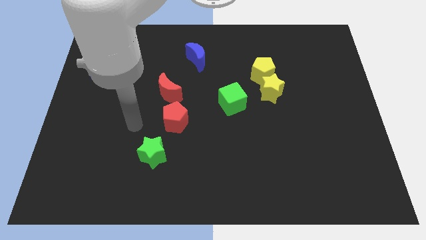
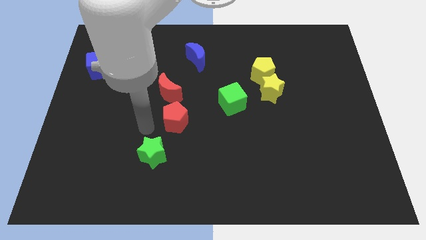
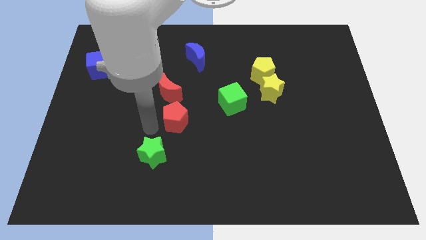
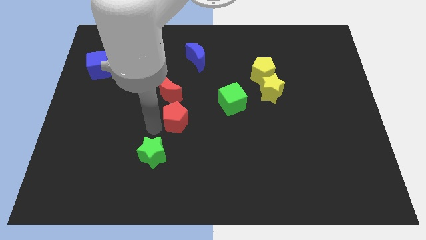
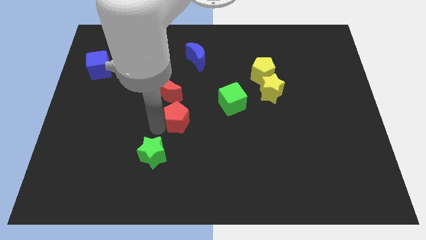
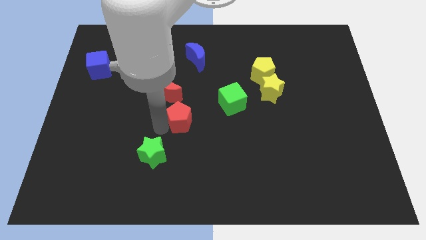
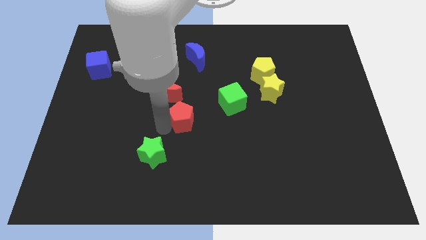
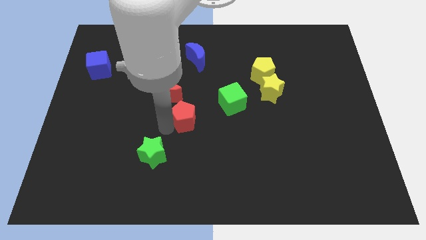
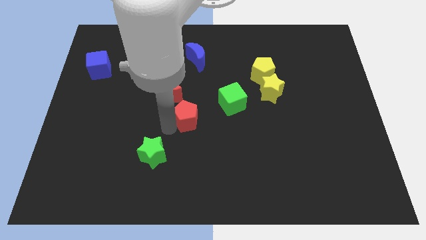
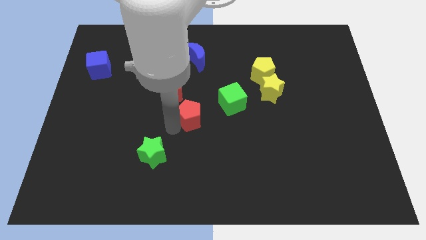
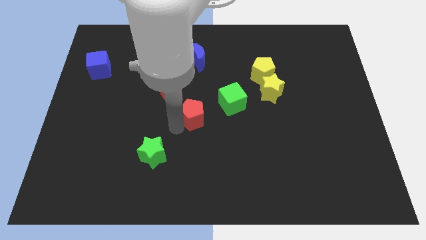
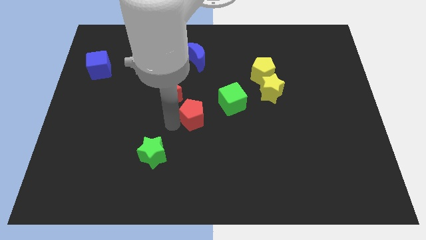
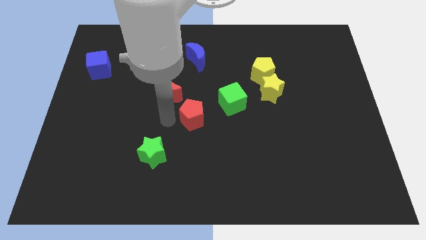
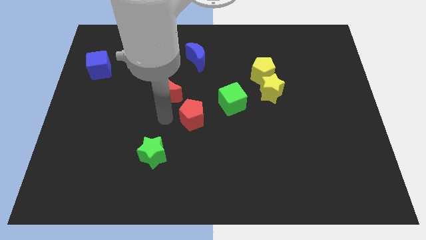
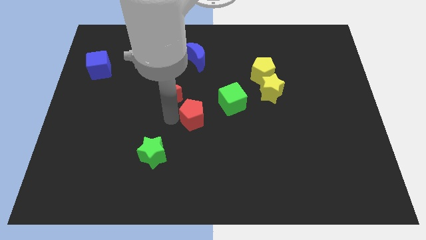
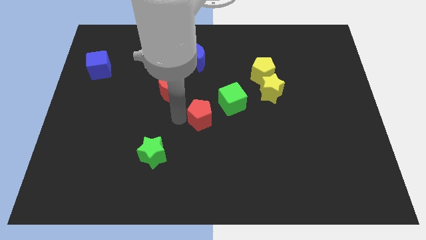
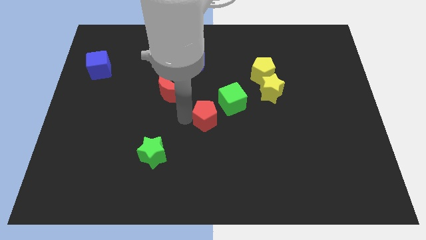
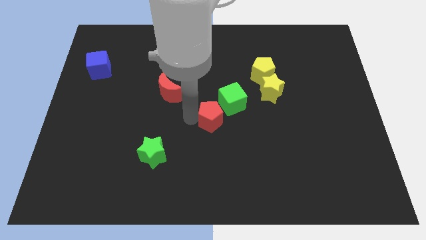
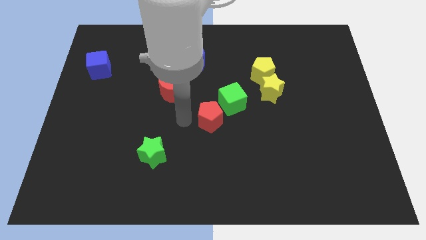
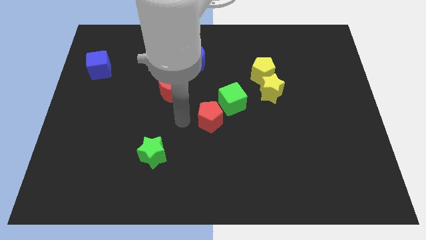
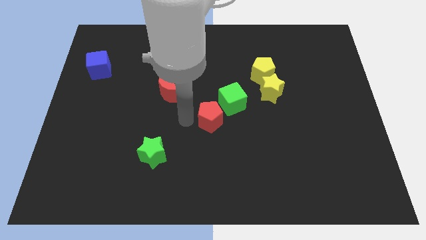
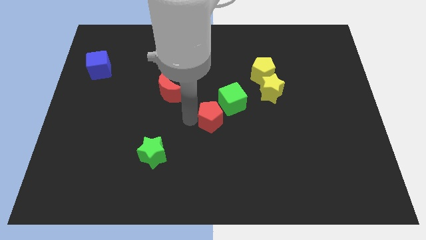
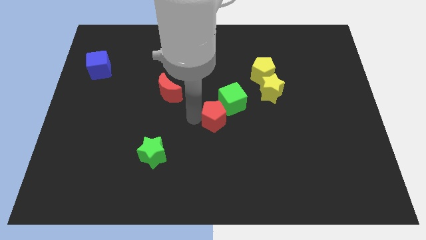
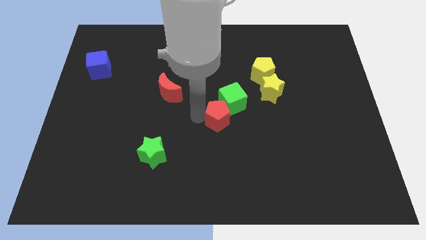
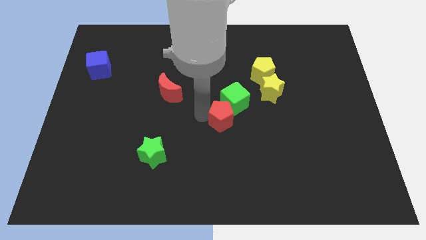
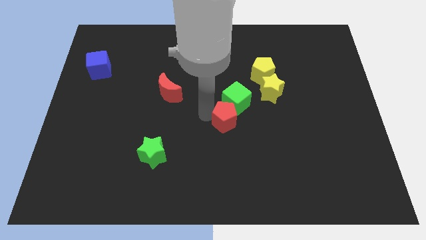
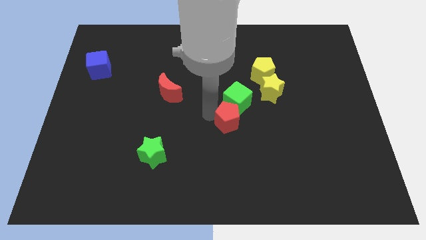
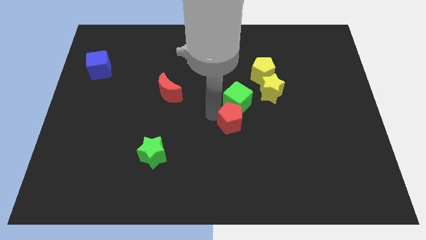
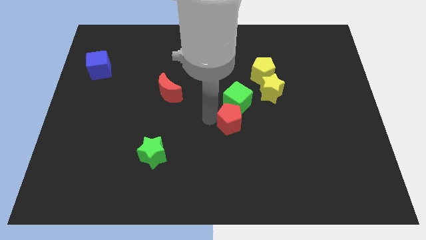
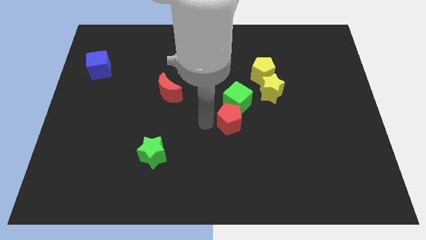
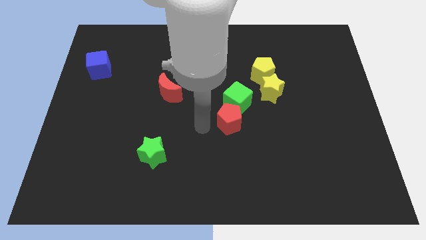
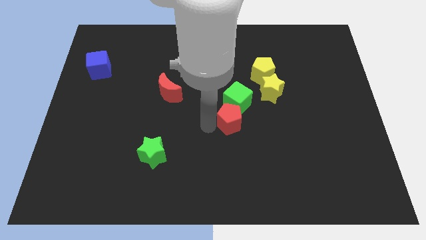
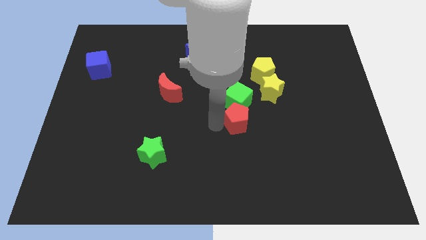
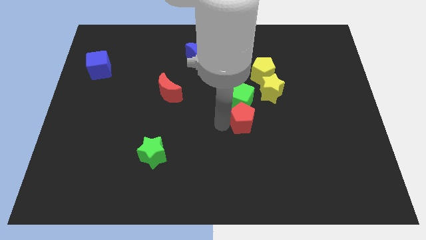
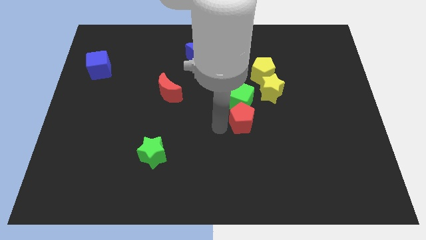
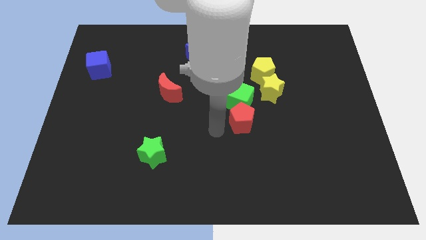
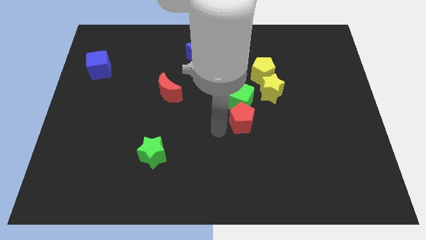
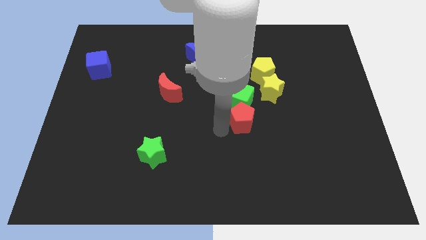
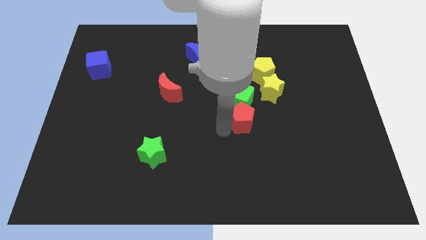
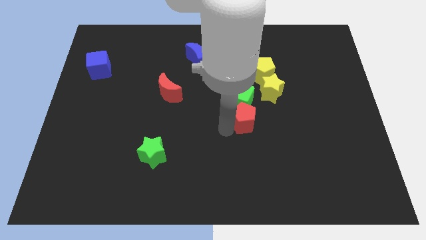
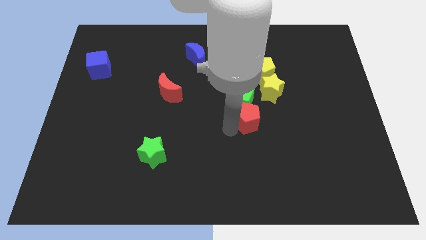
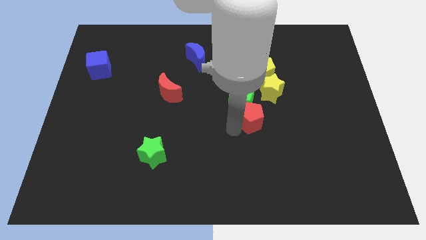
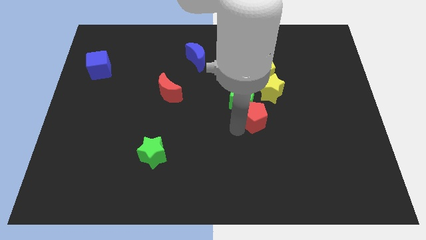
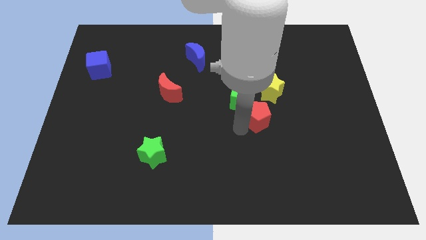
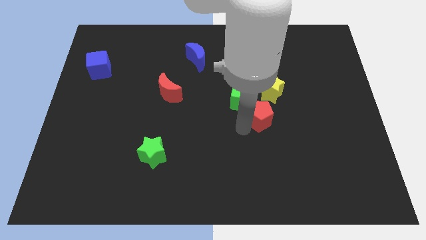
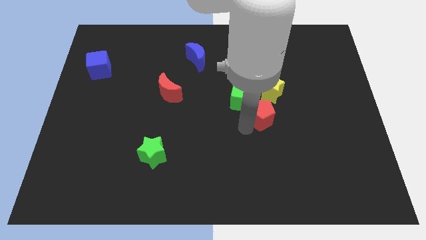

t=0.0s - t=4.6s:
push the red pentagon right

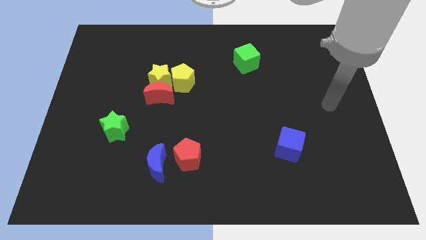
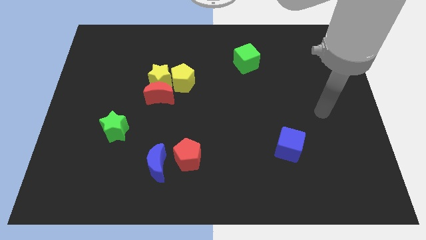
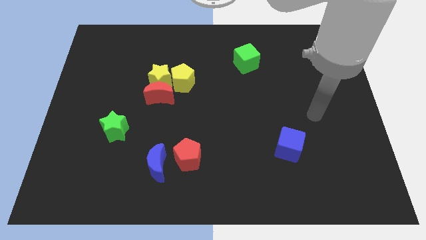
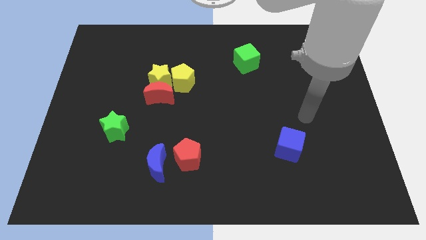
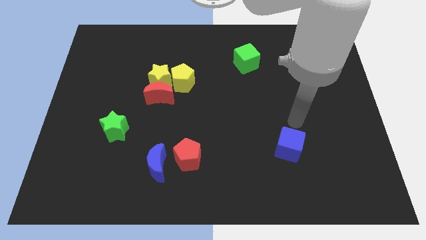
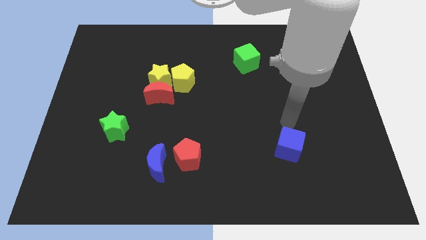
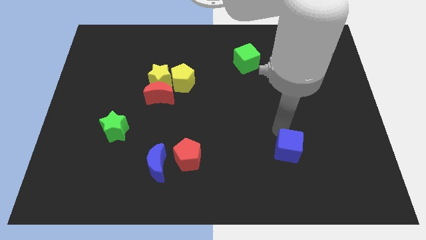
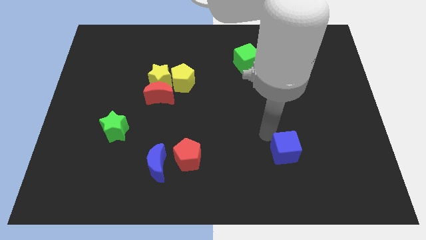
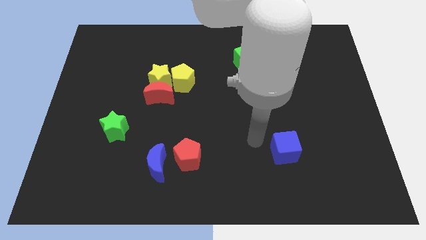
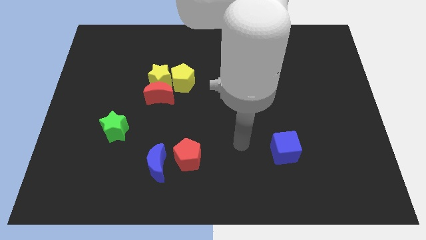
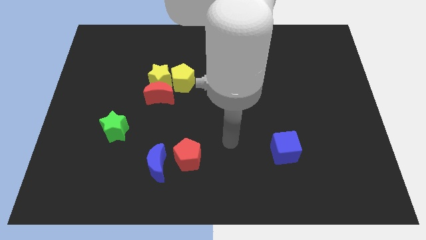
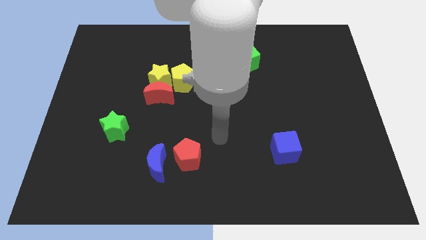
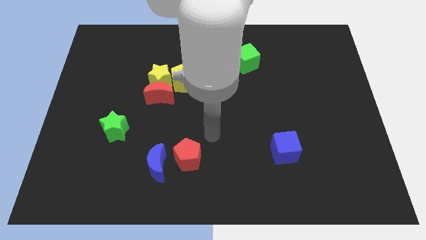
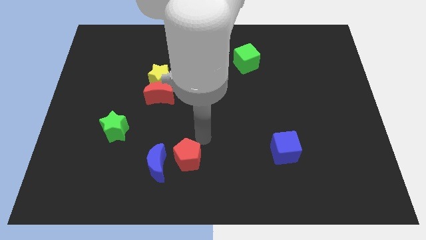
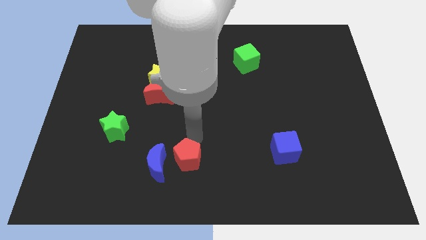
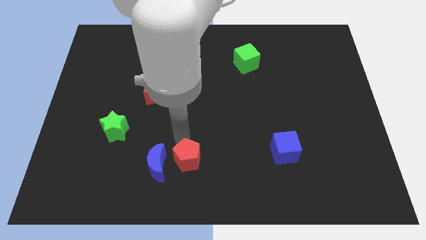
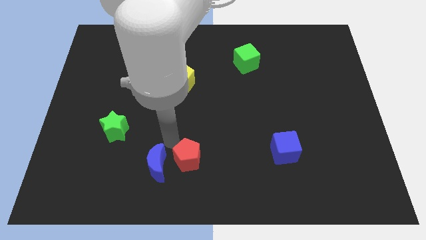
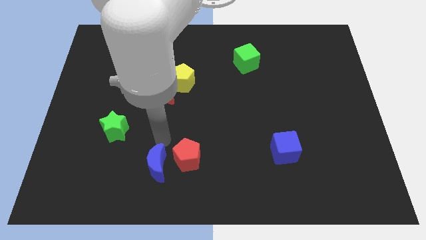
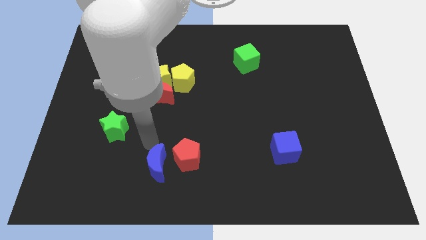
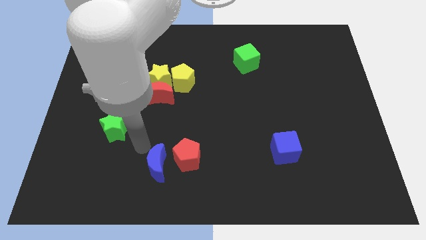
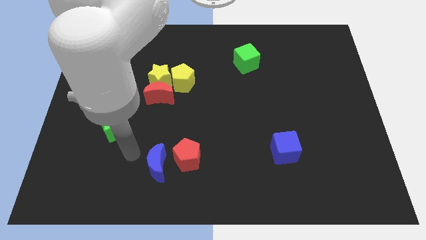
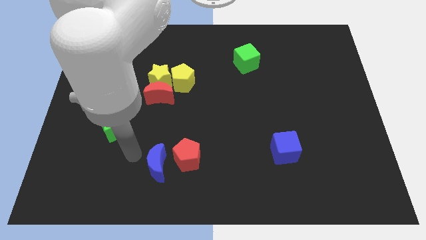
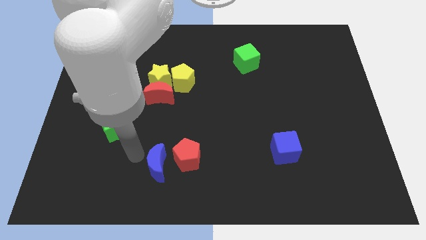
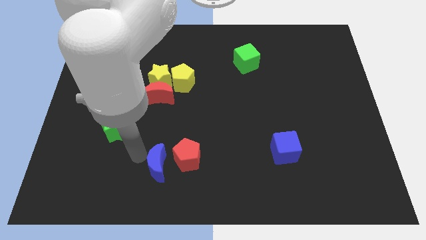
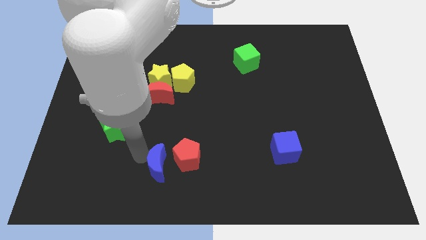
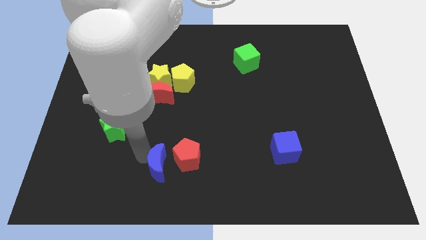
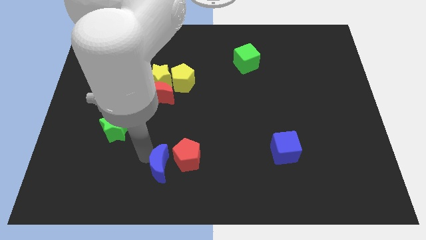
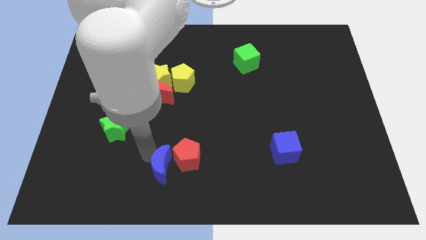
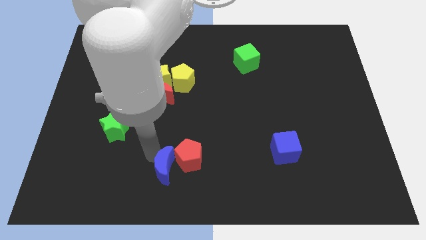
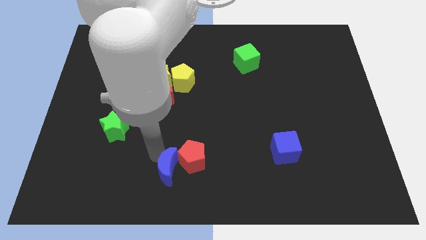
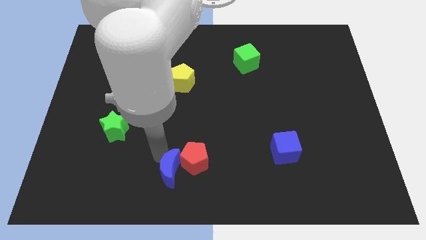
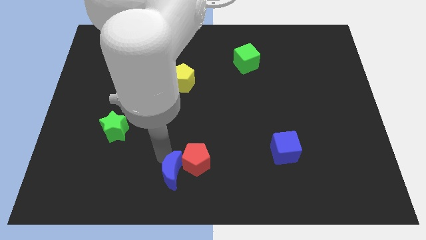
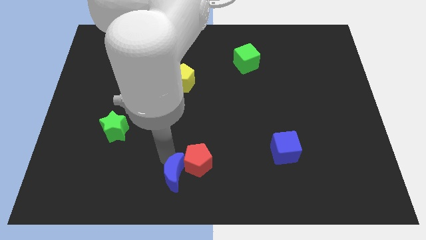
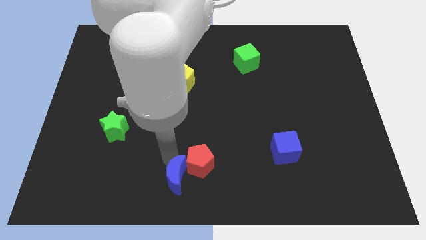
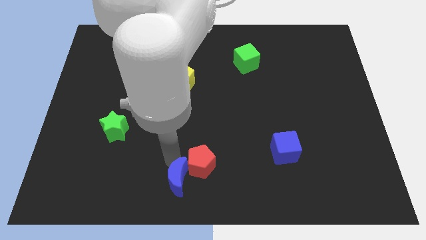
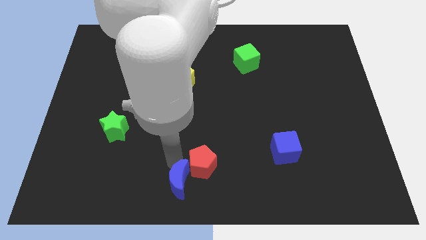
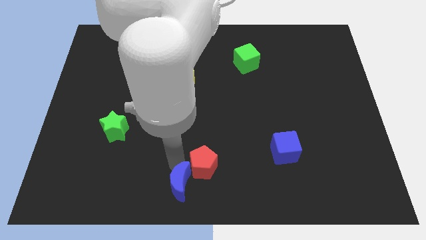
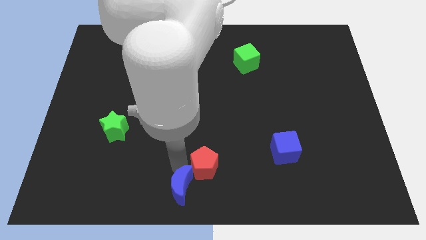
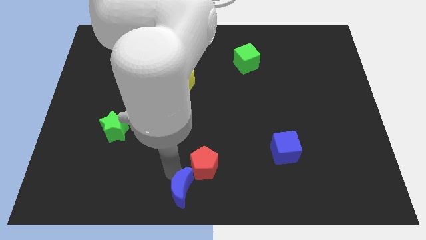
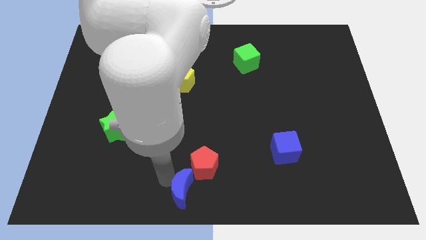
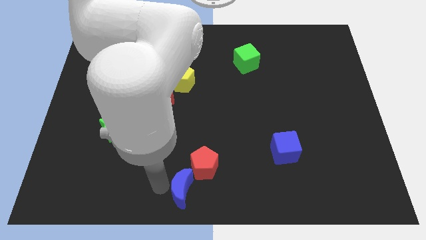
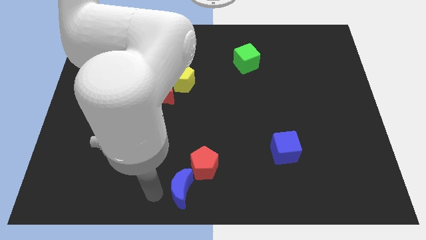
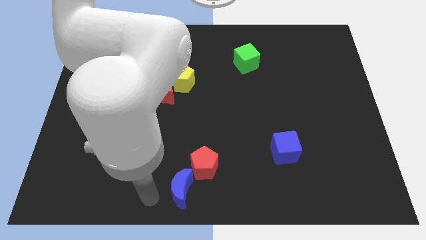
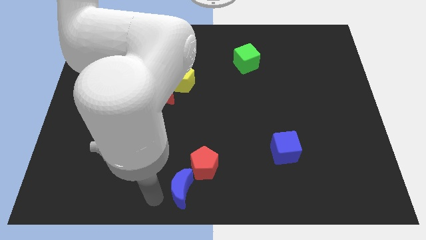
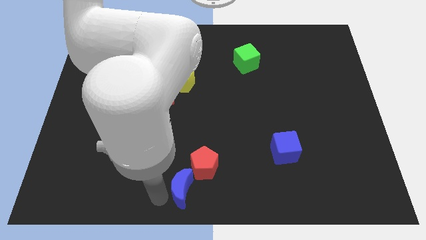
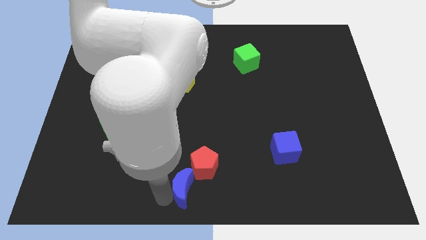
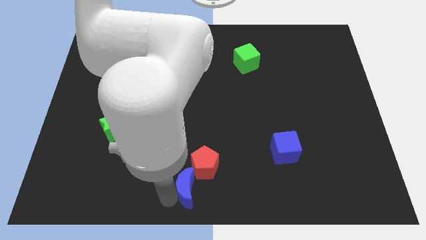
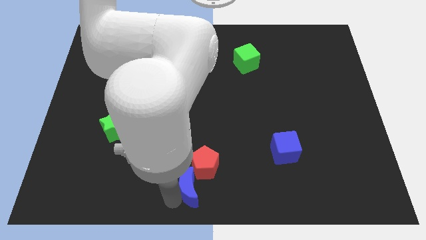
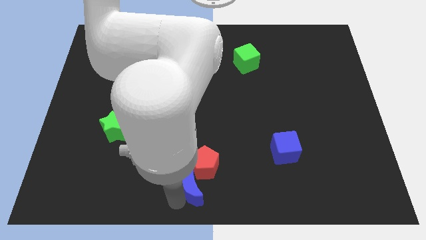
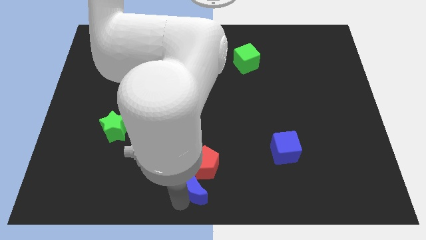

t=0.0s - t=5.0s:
slide the blue moon to the right somewhat
